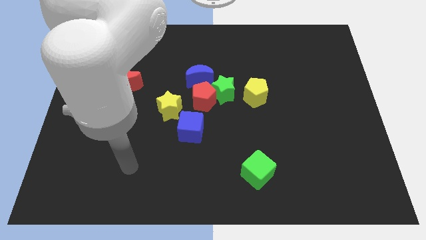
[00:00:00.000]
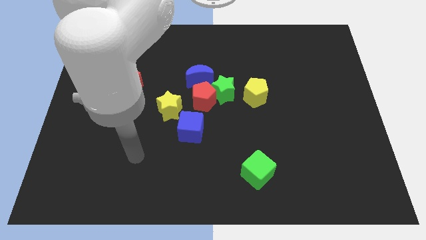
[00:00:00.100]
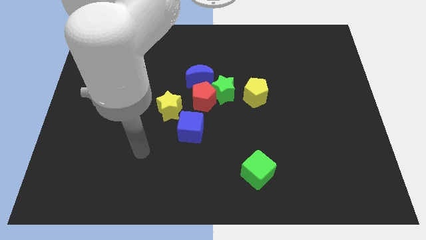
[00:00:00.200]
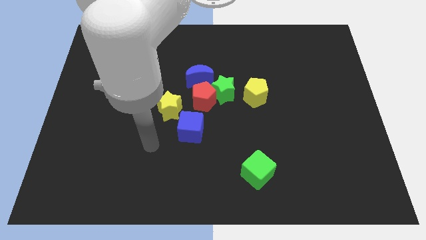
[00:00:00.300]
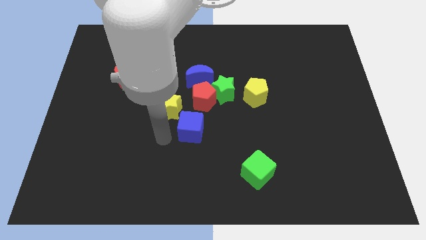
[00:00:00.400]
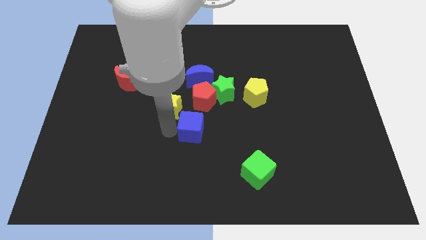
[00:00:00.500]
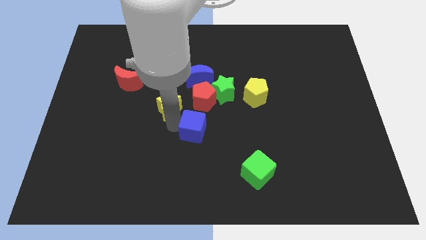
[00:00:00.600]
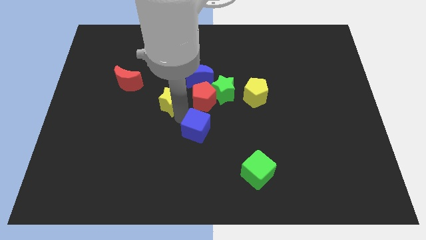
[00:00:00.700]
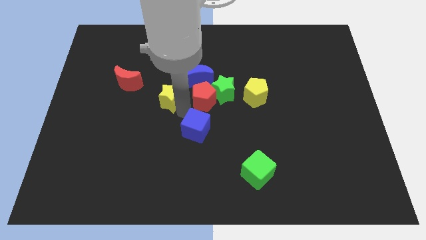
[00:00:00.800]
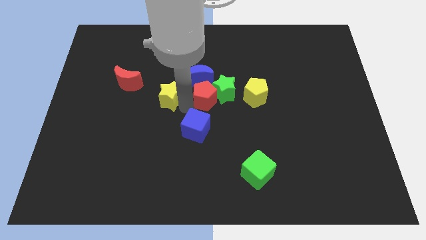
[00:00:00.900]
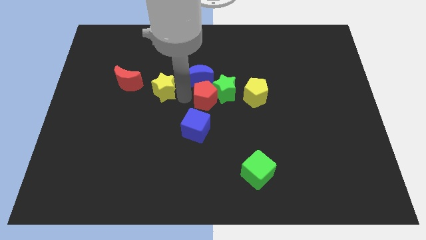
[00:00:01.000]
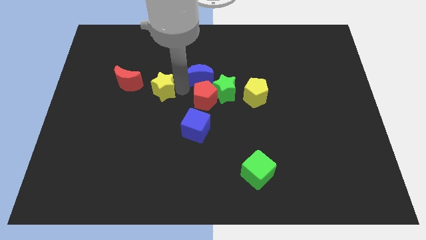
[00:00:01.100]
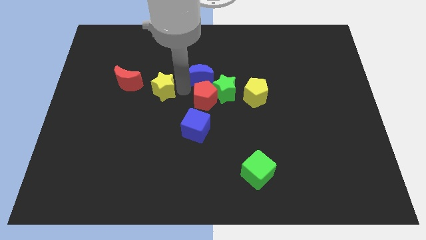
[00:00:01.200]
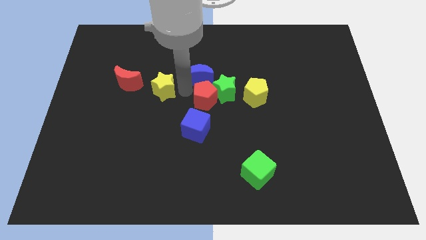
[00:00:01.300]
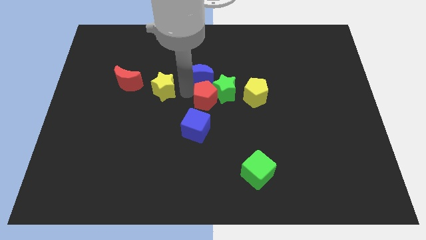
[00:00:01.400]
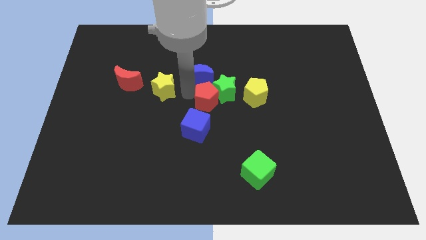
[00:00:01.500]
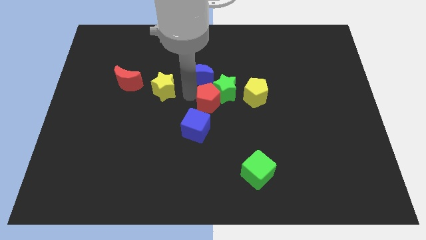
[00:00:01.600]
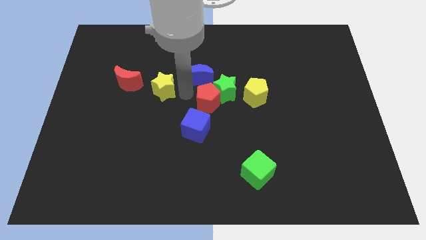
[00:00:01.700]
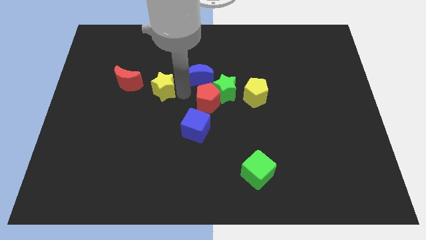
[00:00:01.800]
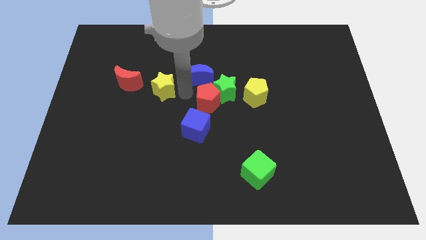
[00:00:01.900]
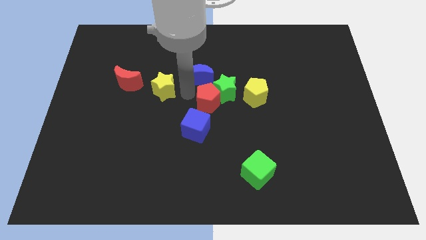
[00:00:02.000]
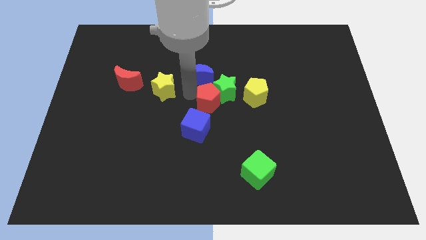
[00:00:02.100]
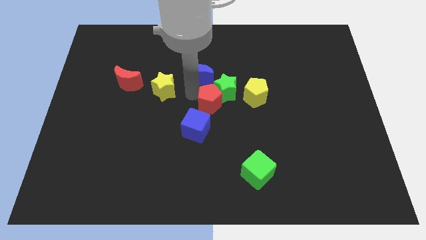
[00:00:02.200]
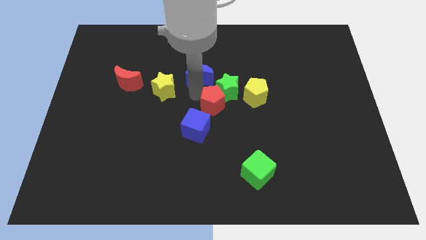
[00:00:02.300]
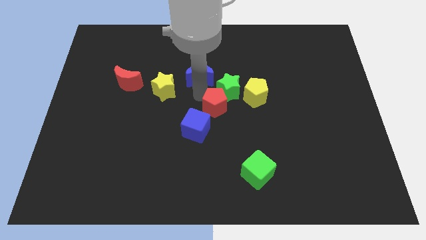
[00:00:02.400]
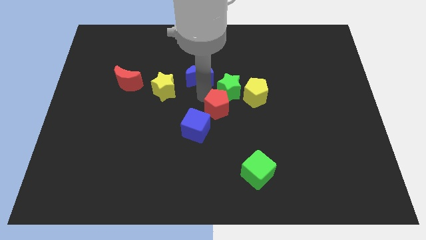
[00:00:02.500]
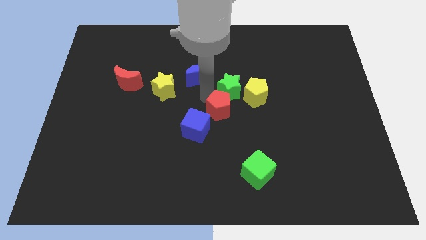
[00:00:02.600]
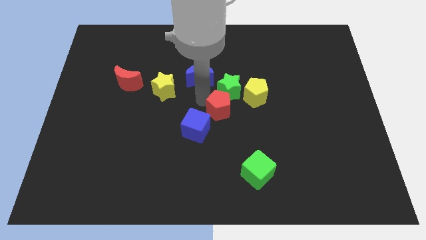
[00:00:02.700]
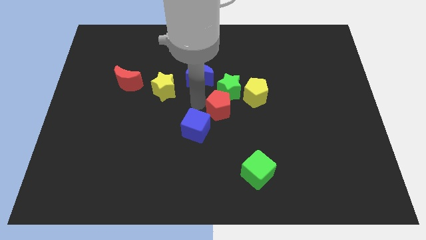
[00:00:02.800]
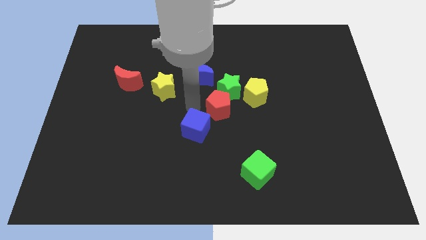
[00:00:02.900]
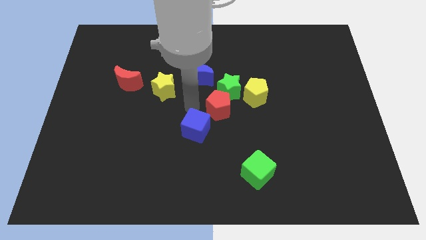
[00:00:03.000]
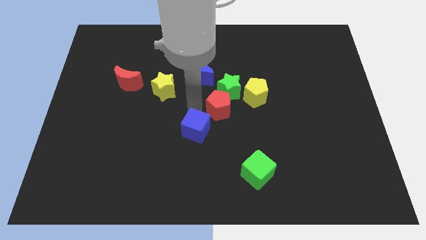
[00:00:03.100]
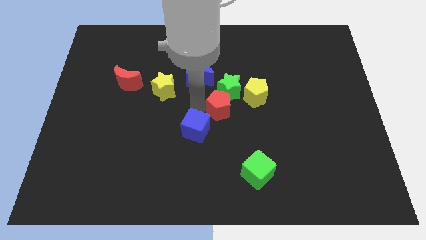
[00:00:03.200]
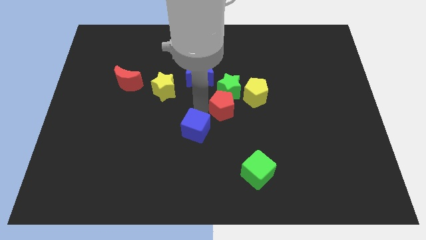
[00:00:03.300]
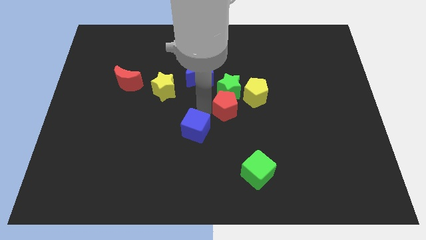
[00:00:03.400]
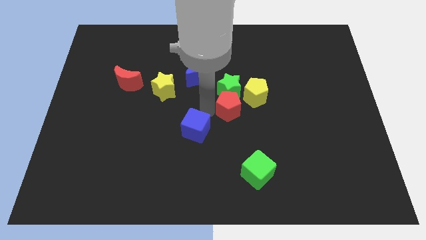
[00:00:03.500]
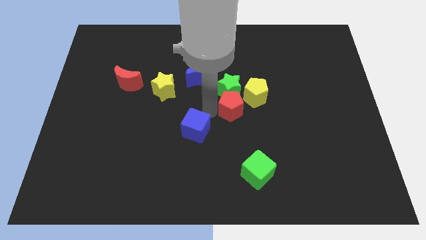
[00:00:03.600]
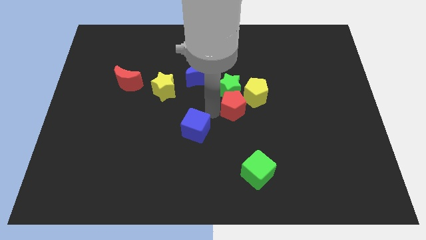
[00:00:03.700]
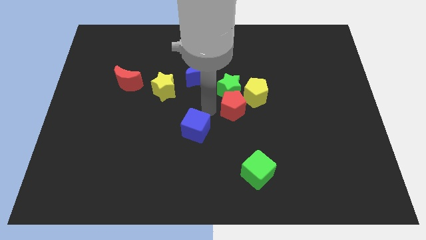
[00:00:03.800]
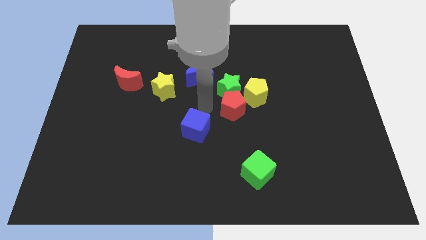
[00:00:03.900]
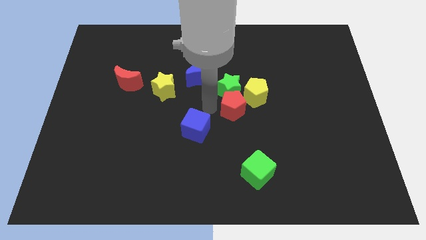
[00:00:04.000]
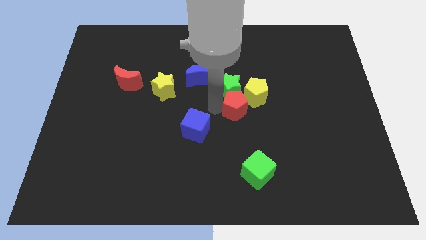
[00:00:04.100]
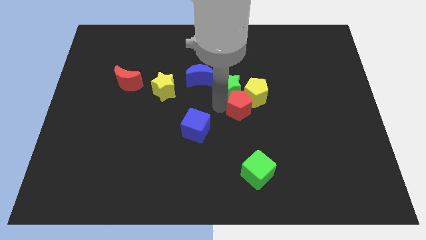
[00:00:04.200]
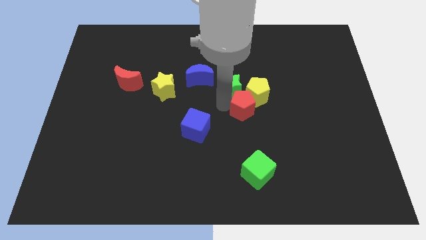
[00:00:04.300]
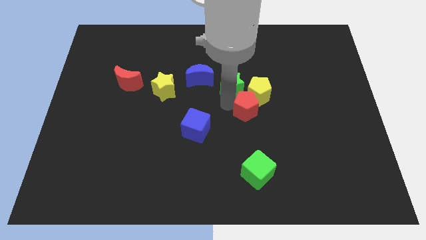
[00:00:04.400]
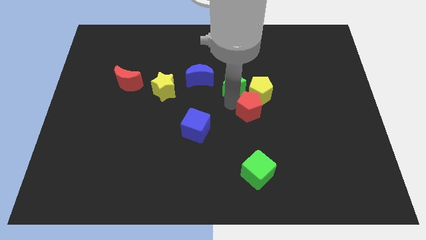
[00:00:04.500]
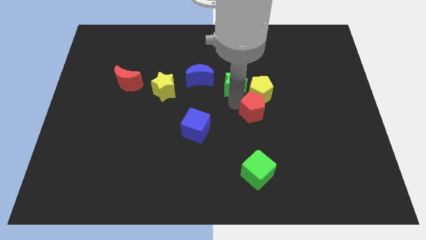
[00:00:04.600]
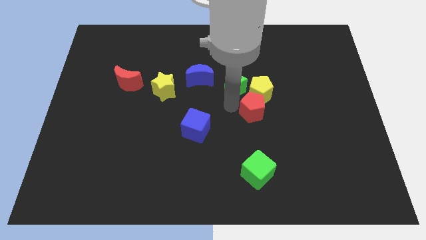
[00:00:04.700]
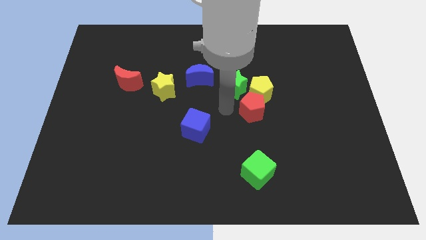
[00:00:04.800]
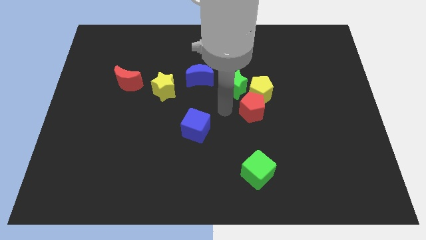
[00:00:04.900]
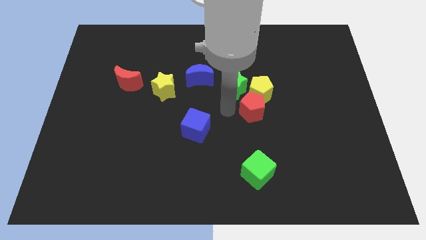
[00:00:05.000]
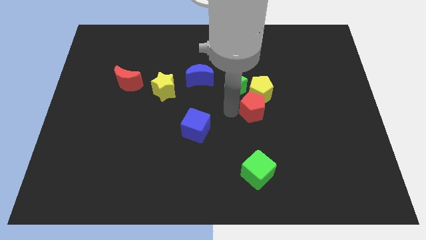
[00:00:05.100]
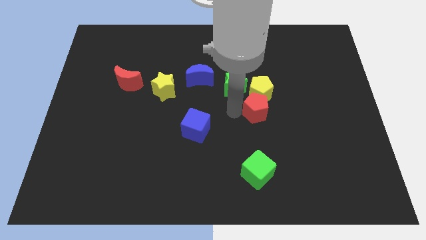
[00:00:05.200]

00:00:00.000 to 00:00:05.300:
move the red pentagon to the bottom right side of the yellow pentagon

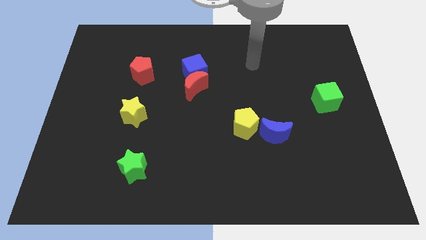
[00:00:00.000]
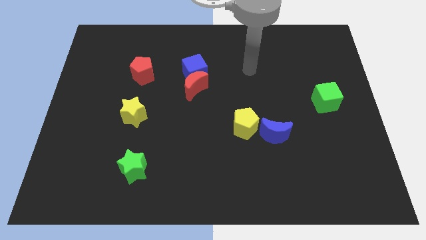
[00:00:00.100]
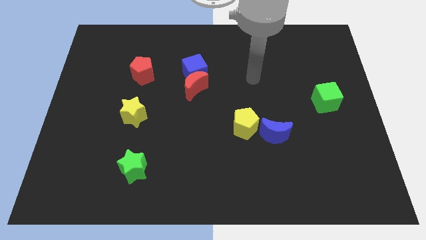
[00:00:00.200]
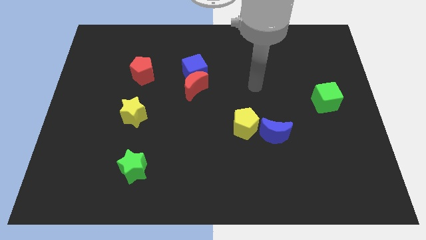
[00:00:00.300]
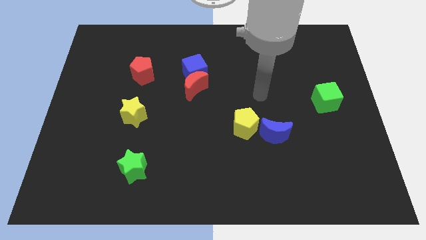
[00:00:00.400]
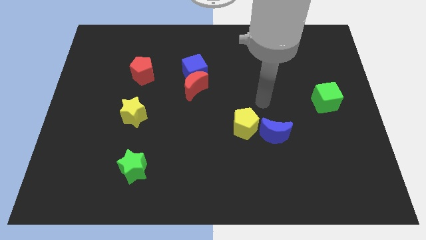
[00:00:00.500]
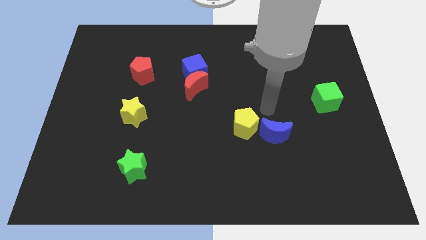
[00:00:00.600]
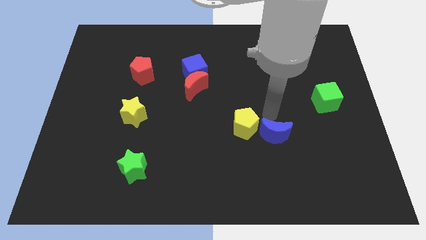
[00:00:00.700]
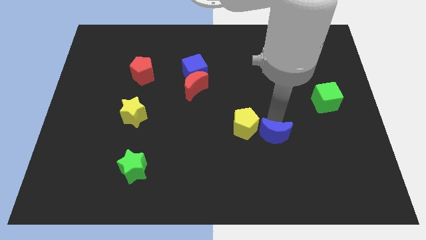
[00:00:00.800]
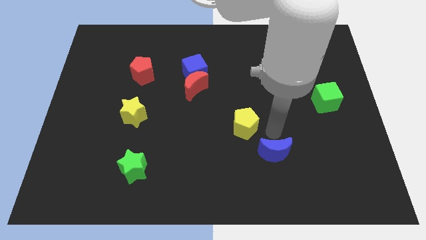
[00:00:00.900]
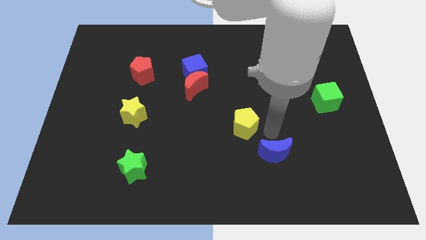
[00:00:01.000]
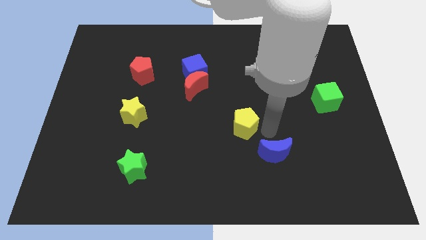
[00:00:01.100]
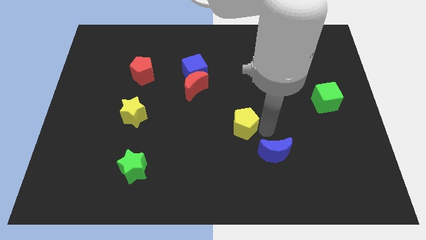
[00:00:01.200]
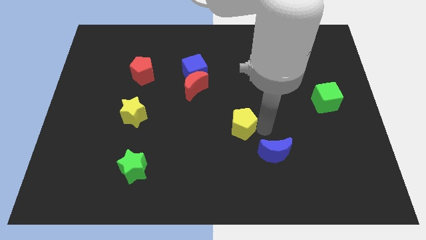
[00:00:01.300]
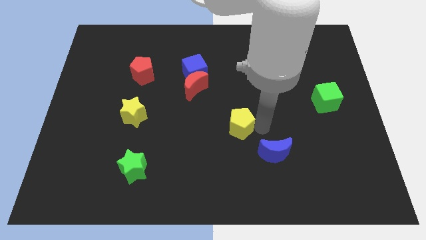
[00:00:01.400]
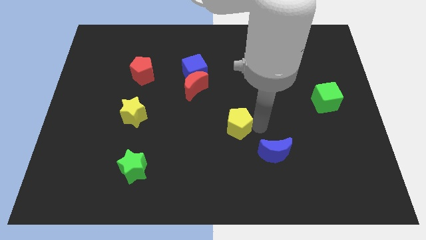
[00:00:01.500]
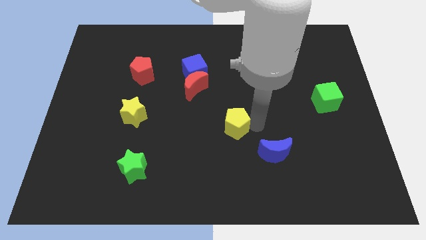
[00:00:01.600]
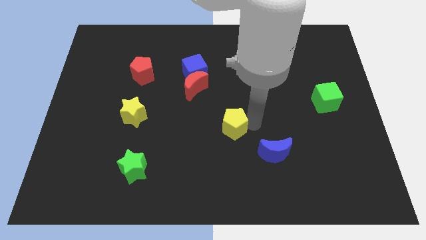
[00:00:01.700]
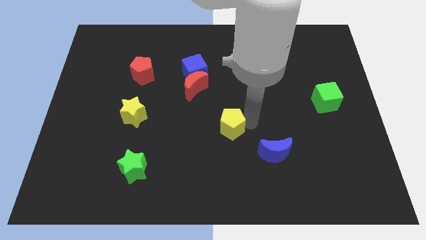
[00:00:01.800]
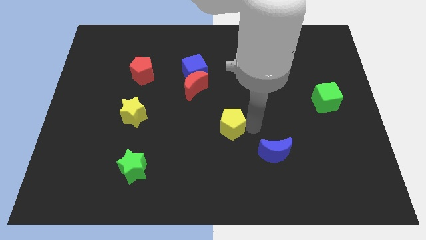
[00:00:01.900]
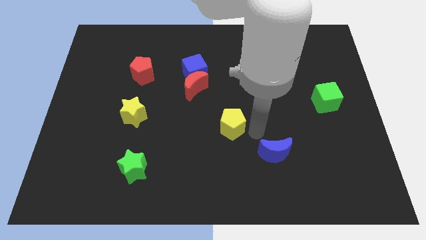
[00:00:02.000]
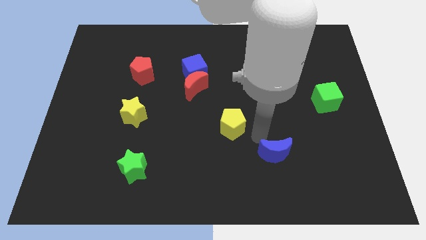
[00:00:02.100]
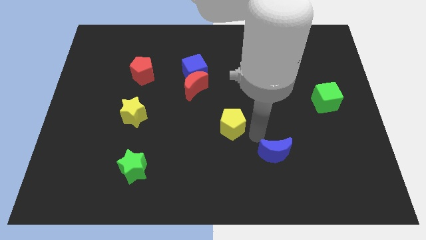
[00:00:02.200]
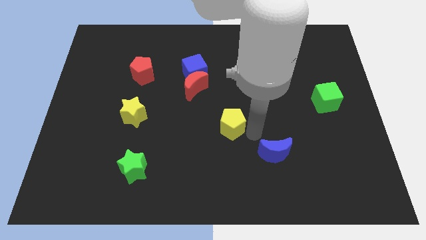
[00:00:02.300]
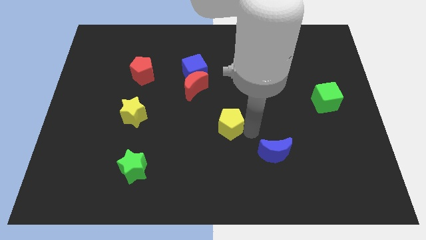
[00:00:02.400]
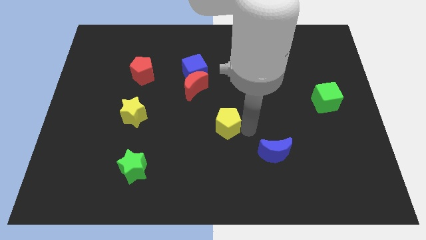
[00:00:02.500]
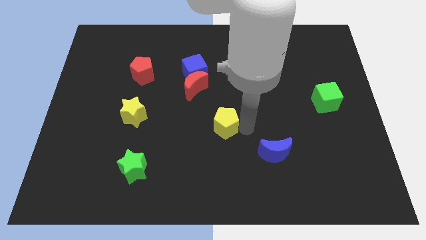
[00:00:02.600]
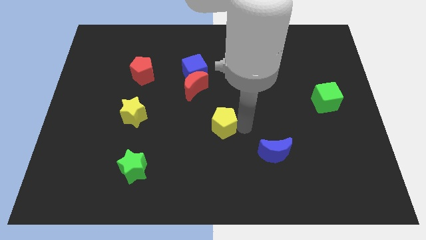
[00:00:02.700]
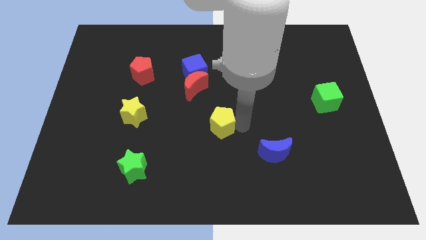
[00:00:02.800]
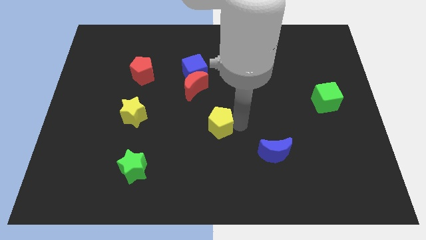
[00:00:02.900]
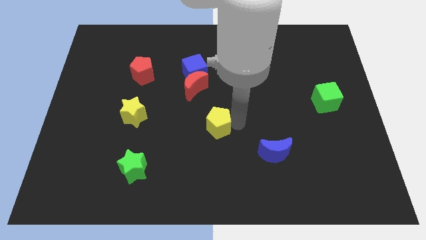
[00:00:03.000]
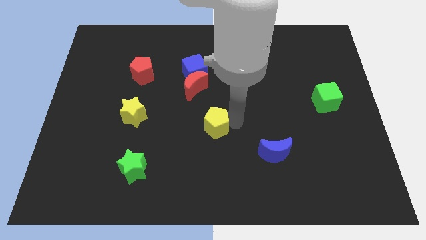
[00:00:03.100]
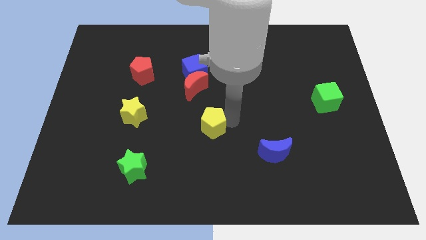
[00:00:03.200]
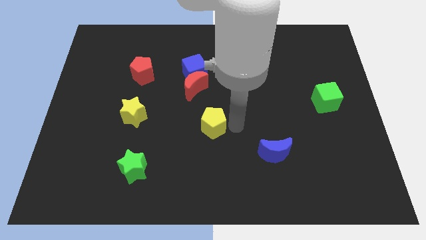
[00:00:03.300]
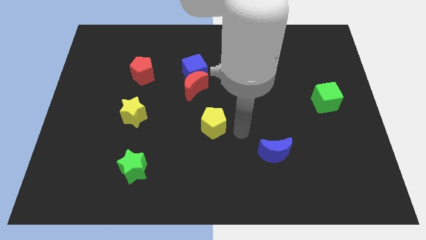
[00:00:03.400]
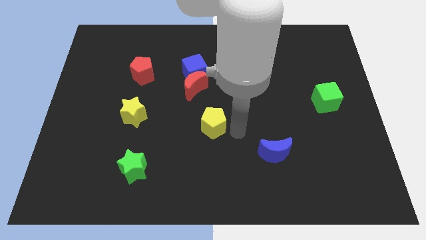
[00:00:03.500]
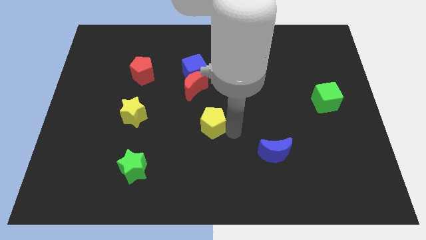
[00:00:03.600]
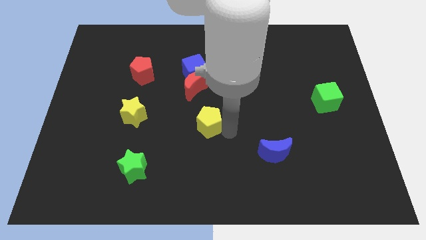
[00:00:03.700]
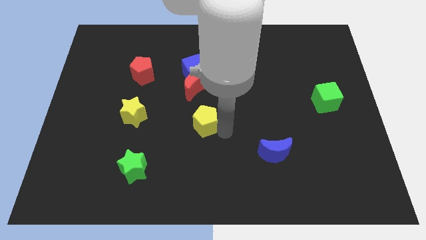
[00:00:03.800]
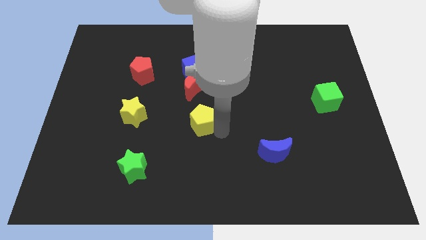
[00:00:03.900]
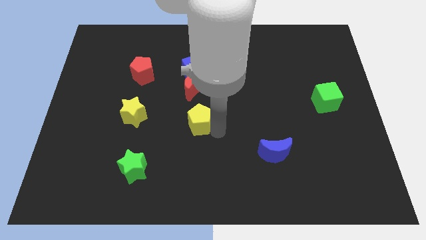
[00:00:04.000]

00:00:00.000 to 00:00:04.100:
push the yellow pentagon right of the yellow star
